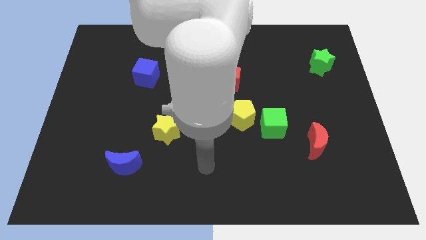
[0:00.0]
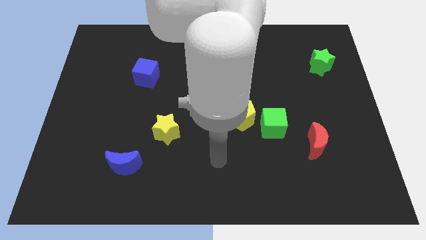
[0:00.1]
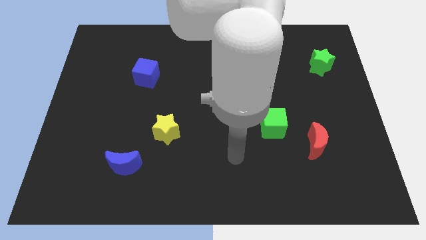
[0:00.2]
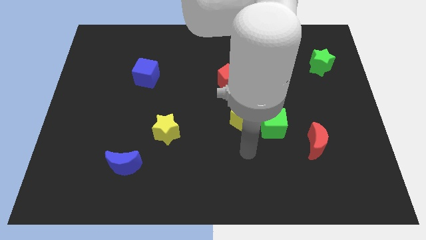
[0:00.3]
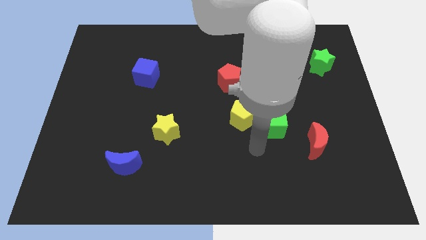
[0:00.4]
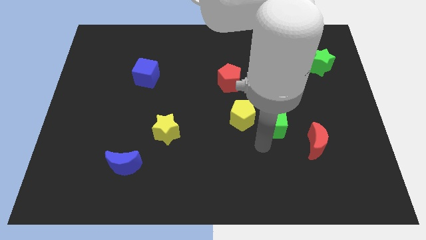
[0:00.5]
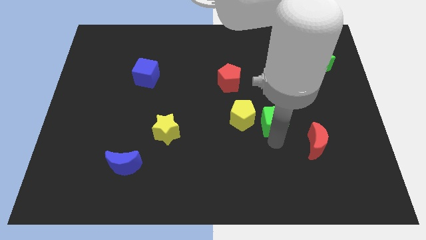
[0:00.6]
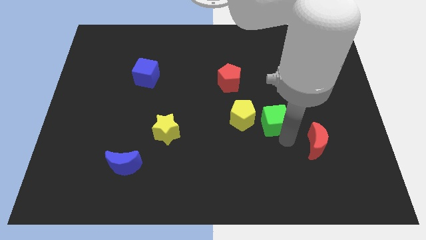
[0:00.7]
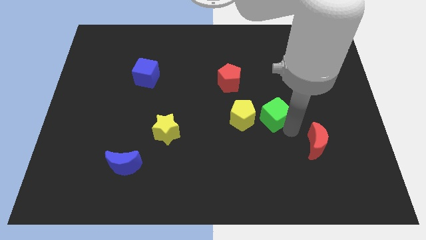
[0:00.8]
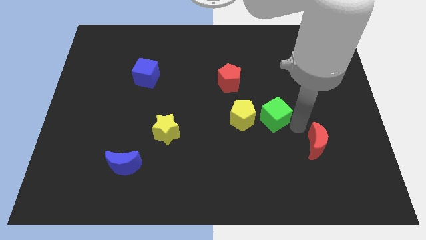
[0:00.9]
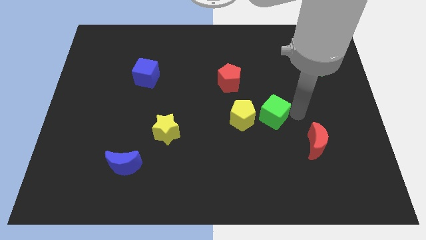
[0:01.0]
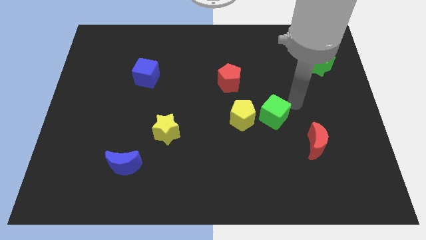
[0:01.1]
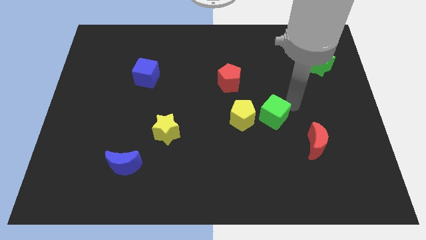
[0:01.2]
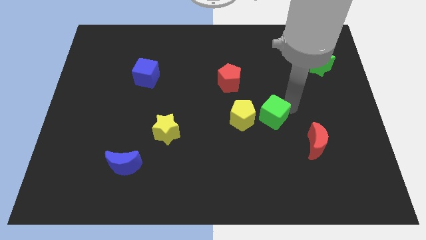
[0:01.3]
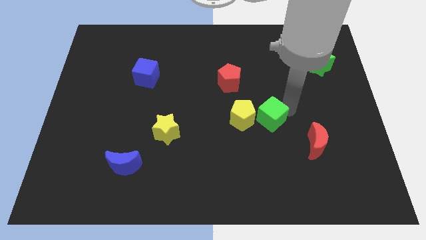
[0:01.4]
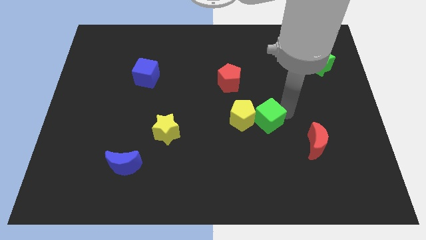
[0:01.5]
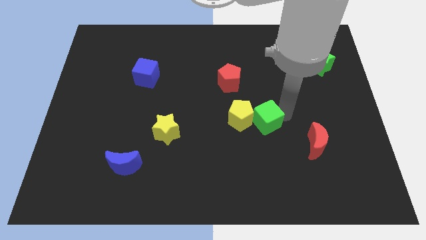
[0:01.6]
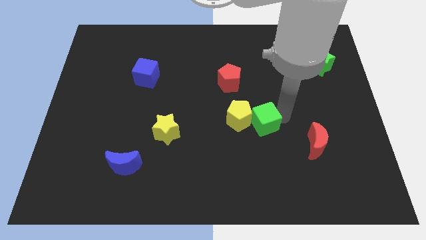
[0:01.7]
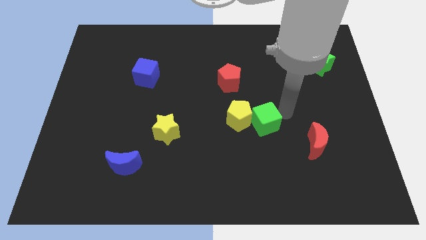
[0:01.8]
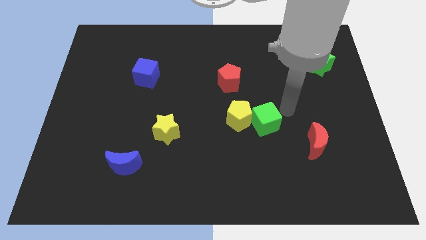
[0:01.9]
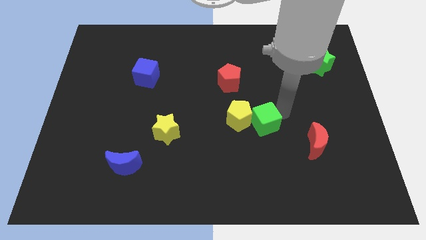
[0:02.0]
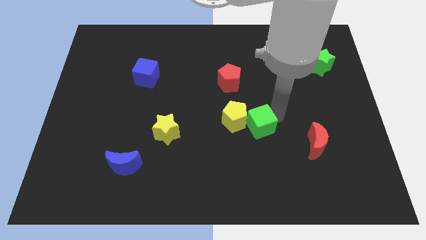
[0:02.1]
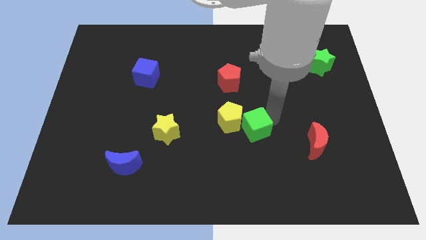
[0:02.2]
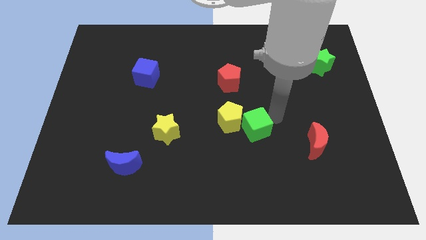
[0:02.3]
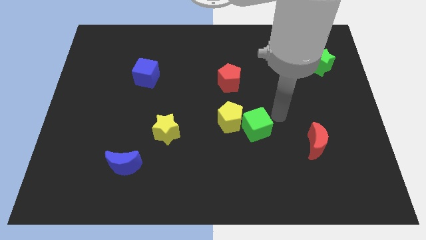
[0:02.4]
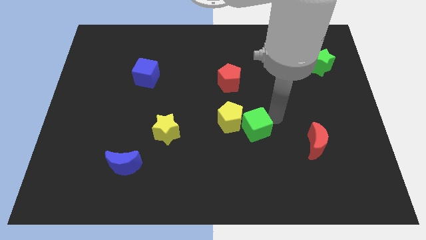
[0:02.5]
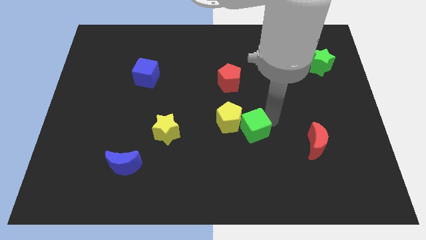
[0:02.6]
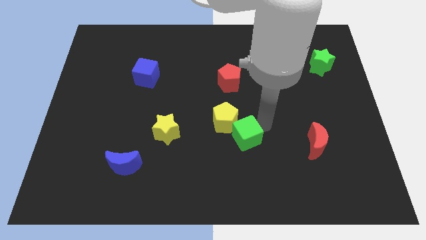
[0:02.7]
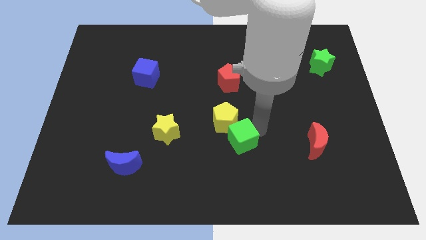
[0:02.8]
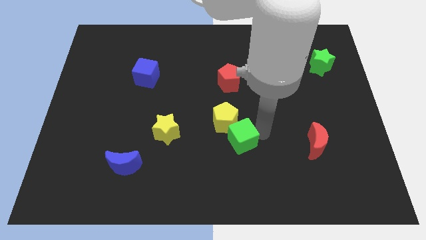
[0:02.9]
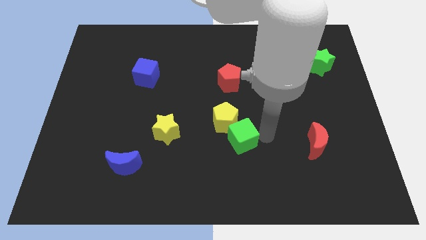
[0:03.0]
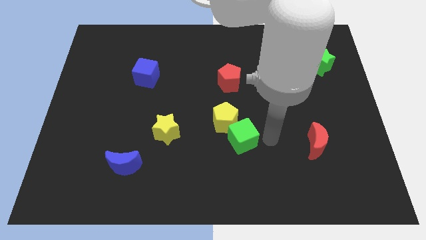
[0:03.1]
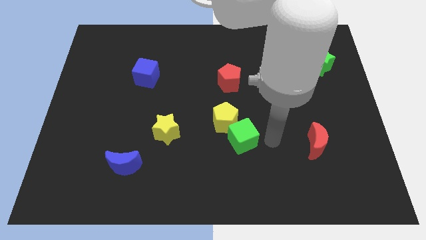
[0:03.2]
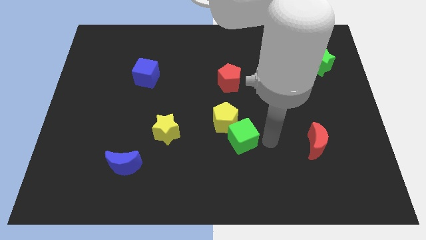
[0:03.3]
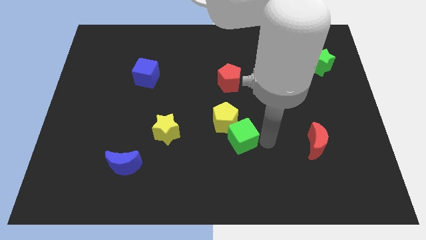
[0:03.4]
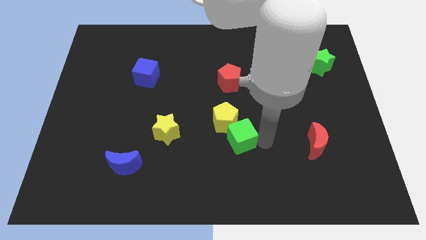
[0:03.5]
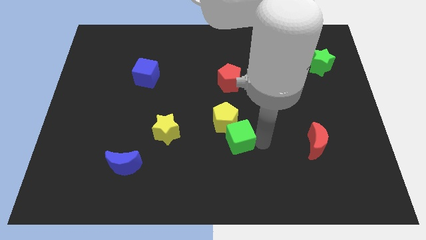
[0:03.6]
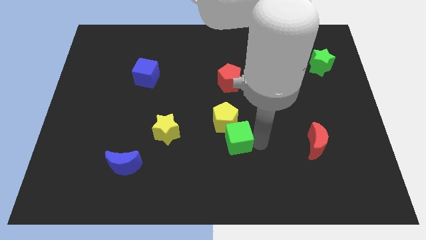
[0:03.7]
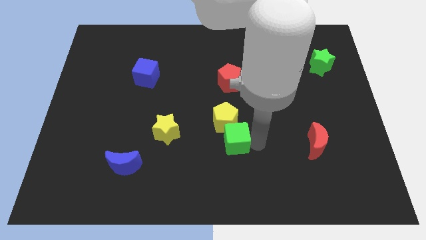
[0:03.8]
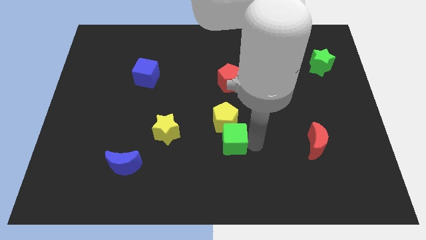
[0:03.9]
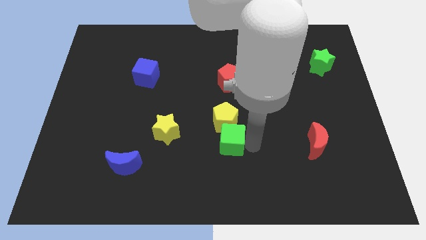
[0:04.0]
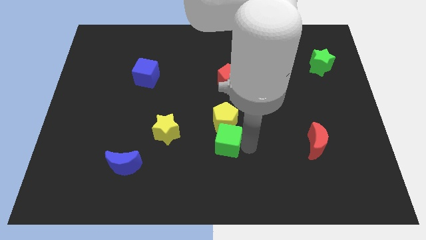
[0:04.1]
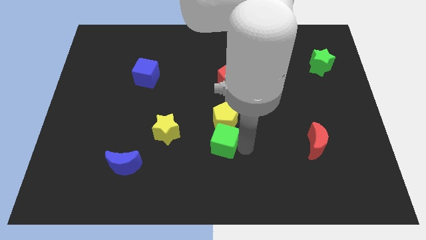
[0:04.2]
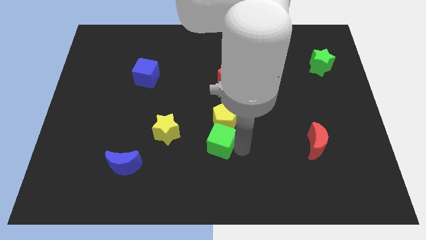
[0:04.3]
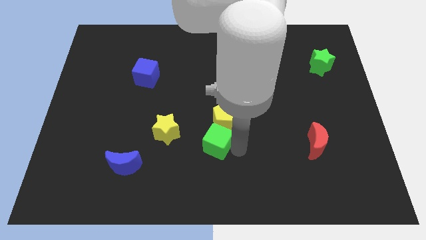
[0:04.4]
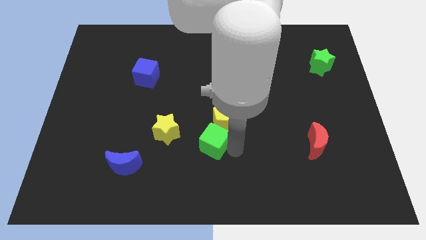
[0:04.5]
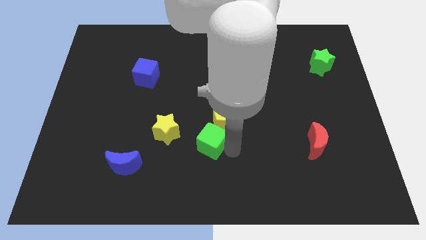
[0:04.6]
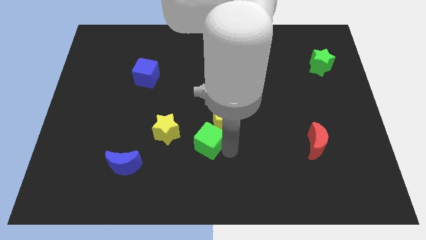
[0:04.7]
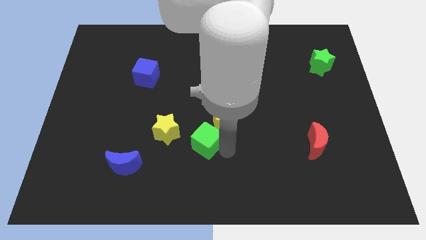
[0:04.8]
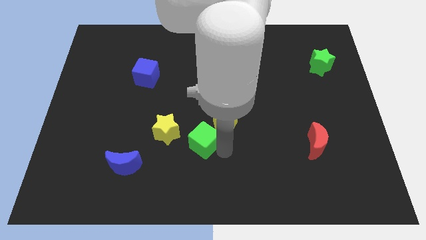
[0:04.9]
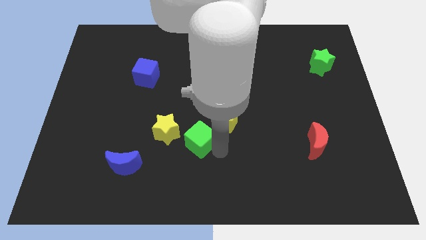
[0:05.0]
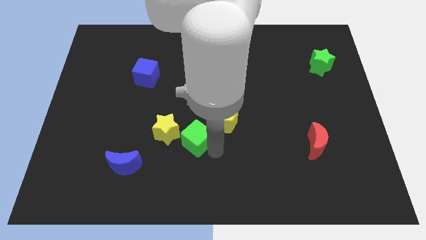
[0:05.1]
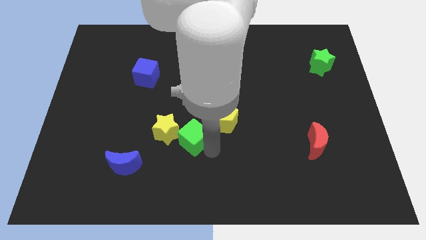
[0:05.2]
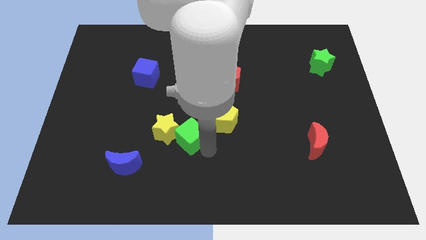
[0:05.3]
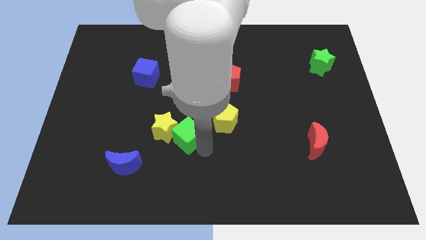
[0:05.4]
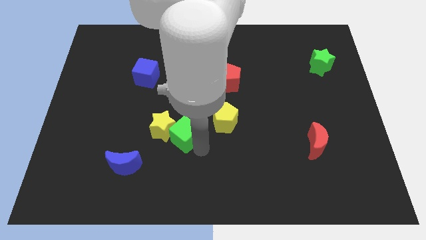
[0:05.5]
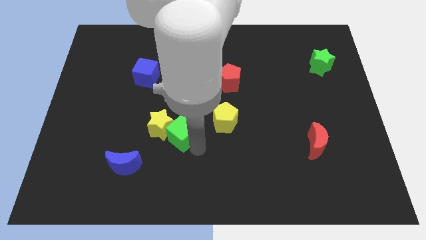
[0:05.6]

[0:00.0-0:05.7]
slide the green cube to the left

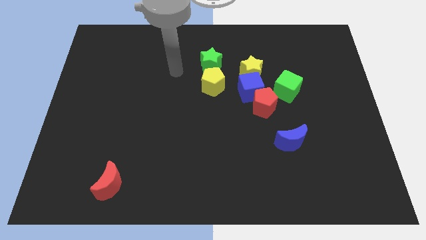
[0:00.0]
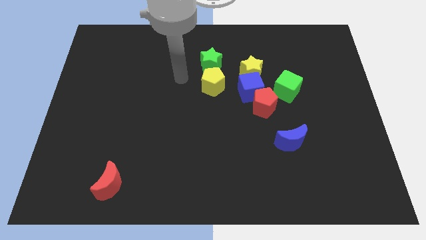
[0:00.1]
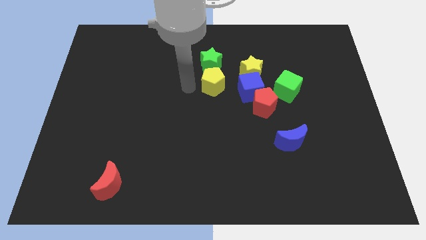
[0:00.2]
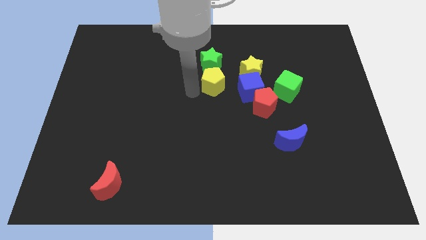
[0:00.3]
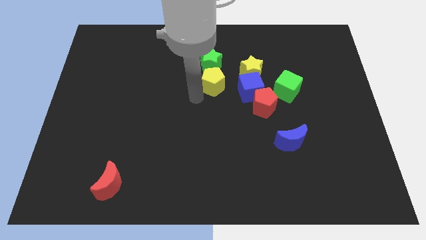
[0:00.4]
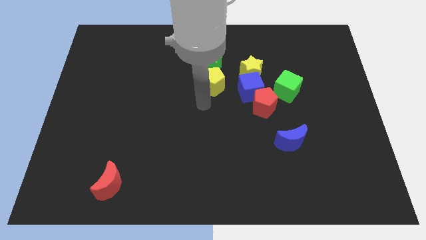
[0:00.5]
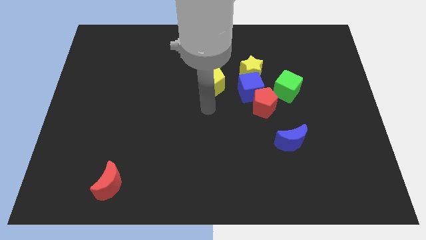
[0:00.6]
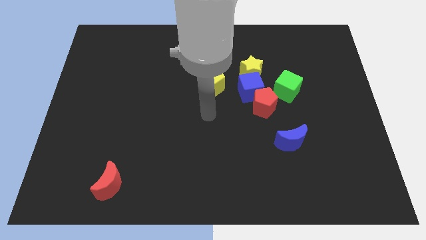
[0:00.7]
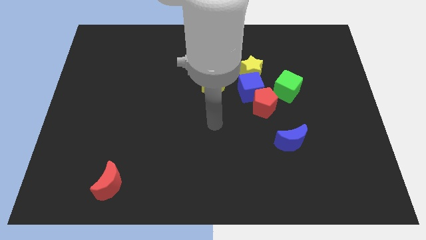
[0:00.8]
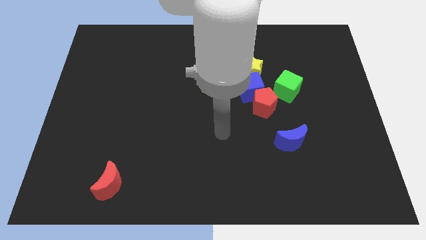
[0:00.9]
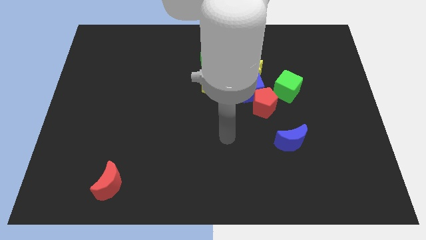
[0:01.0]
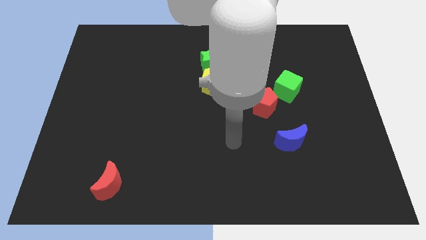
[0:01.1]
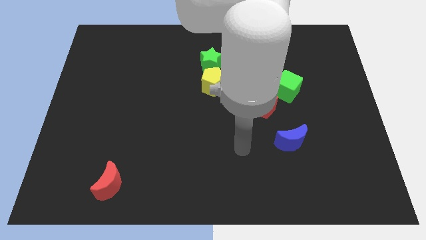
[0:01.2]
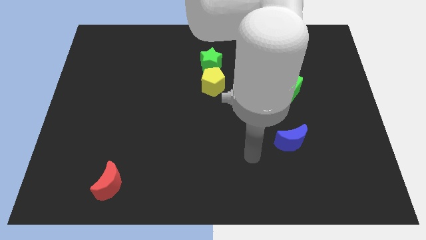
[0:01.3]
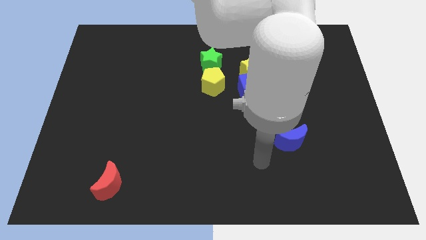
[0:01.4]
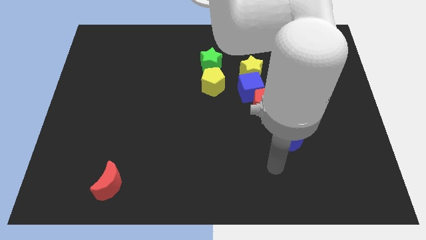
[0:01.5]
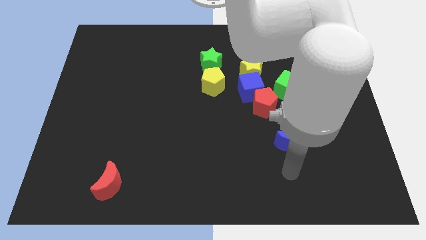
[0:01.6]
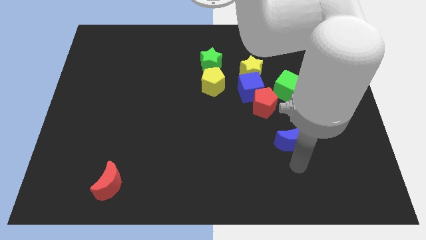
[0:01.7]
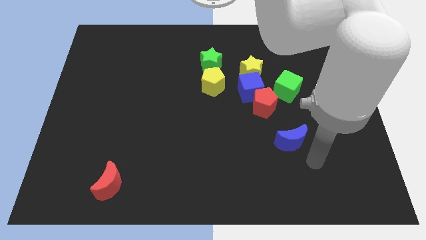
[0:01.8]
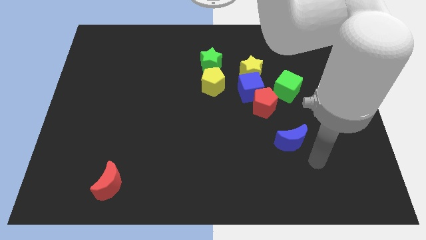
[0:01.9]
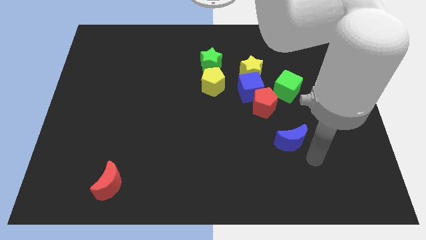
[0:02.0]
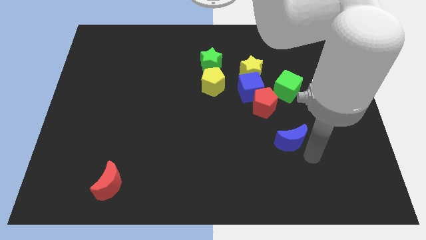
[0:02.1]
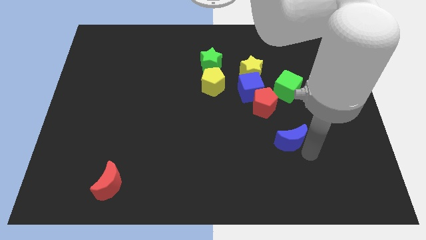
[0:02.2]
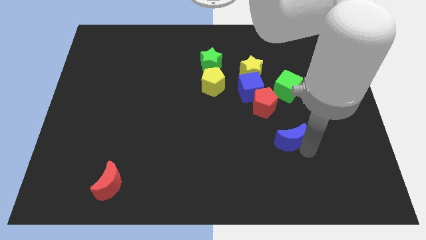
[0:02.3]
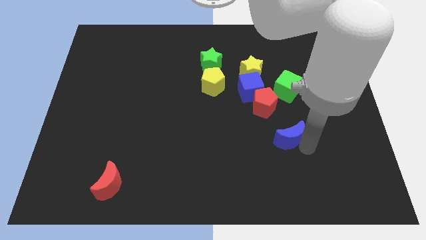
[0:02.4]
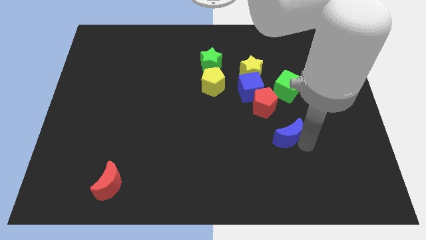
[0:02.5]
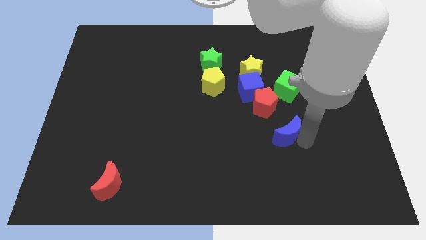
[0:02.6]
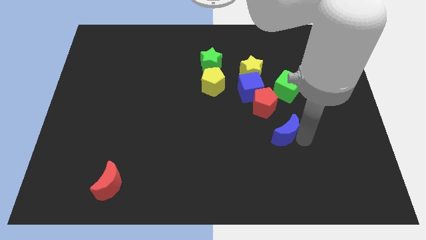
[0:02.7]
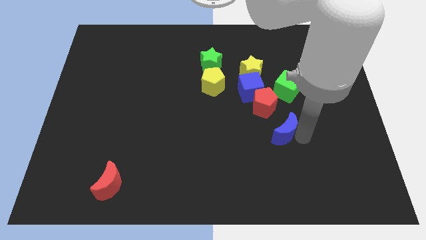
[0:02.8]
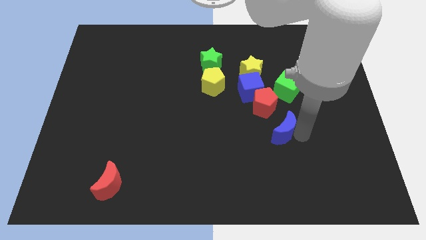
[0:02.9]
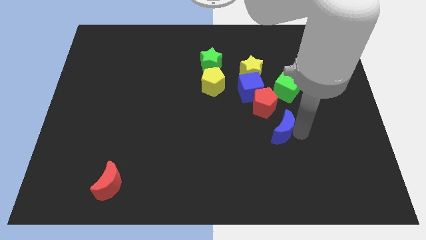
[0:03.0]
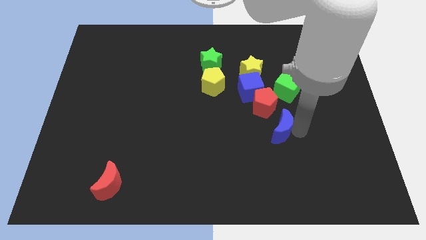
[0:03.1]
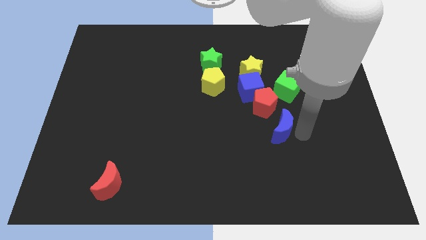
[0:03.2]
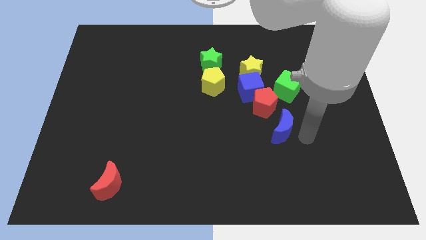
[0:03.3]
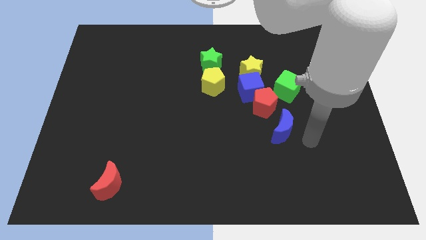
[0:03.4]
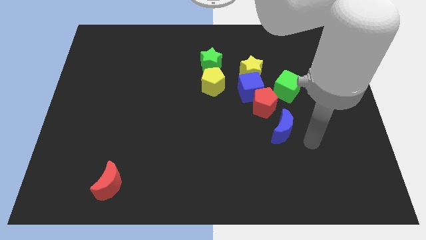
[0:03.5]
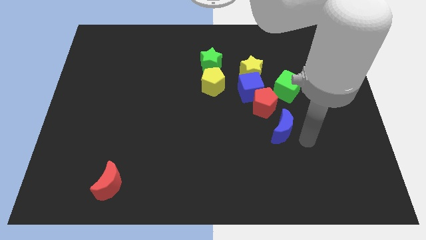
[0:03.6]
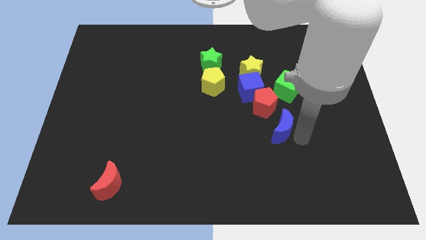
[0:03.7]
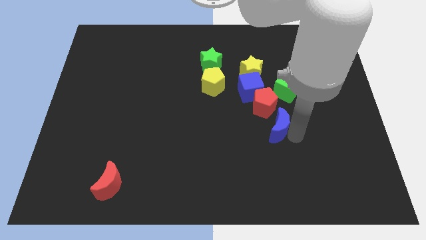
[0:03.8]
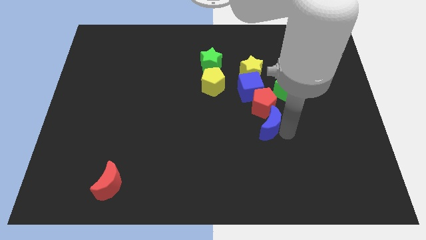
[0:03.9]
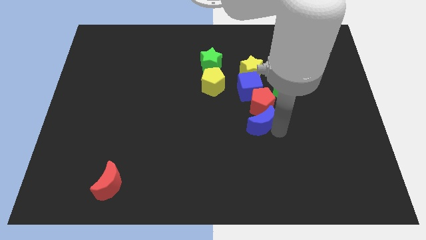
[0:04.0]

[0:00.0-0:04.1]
move the blue moon slightly diagonally upwards and left
